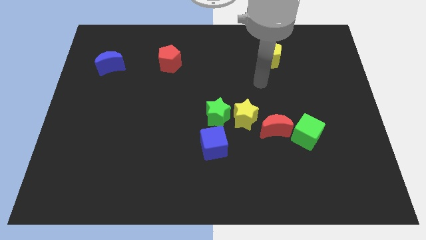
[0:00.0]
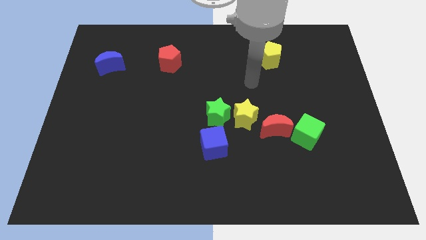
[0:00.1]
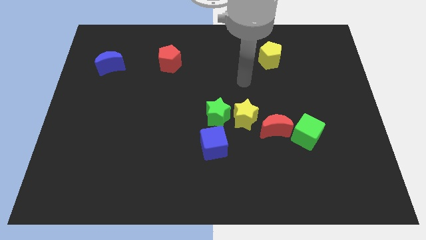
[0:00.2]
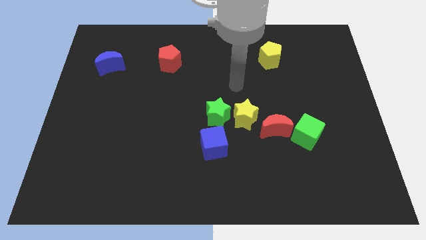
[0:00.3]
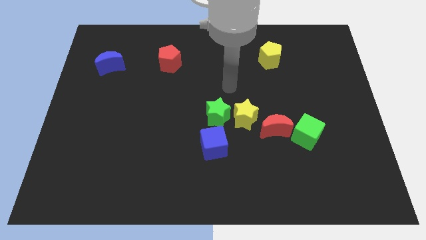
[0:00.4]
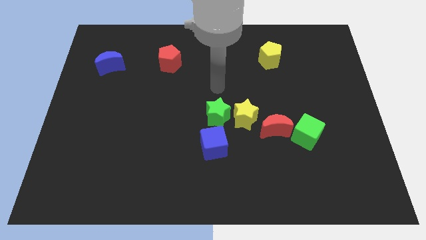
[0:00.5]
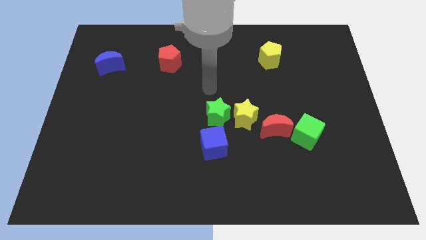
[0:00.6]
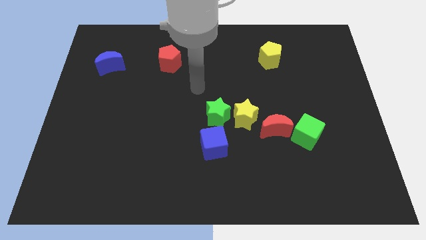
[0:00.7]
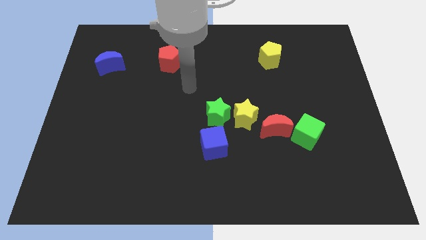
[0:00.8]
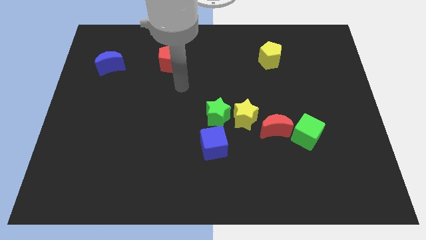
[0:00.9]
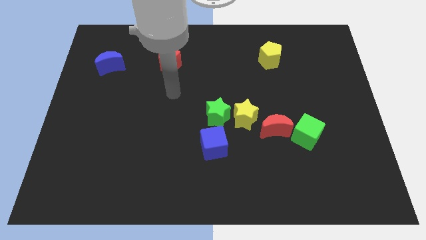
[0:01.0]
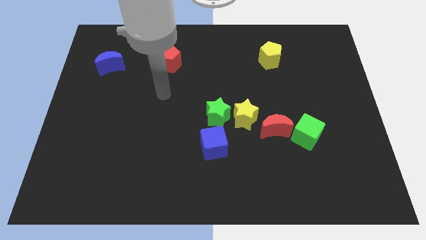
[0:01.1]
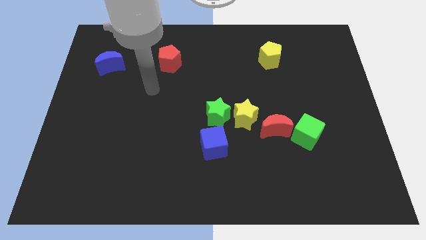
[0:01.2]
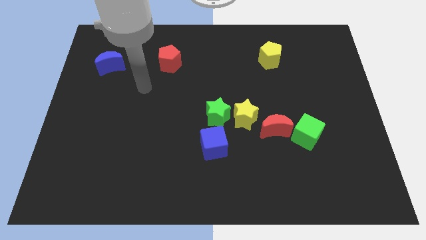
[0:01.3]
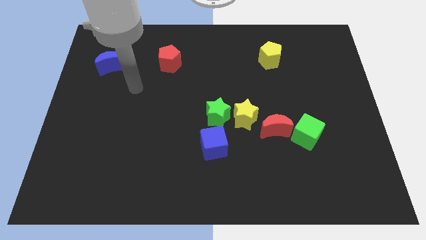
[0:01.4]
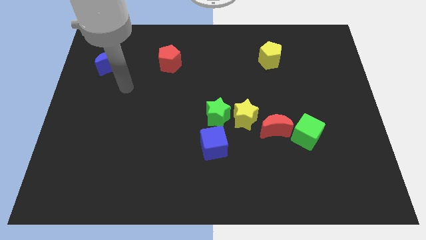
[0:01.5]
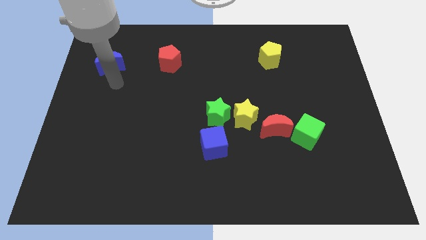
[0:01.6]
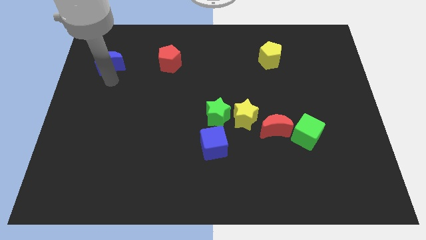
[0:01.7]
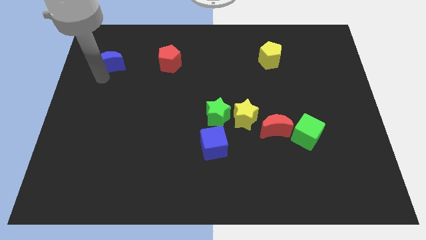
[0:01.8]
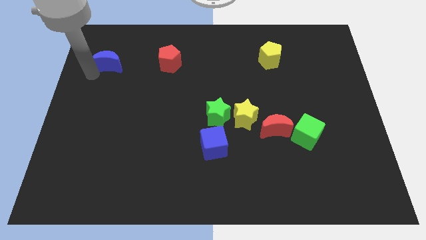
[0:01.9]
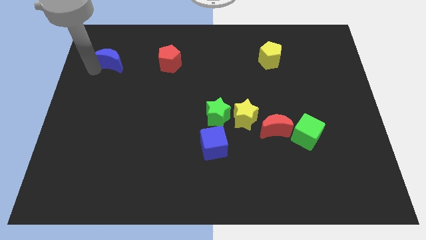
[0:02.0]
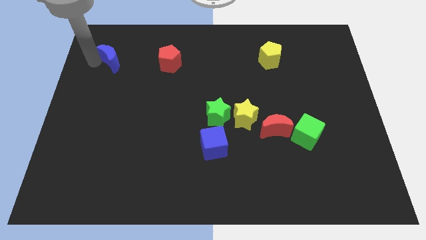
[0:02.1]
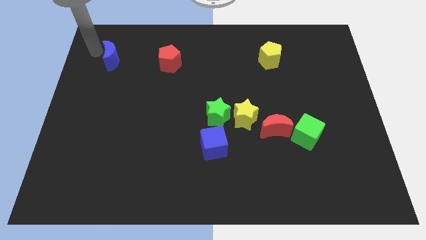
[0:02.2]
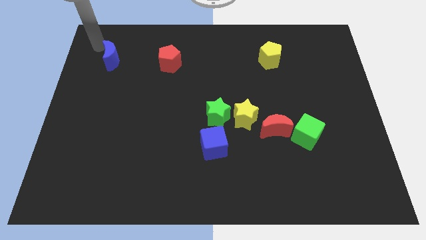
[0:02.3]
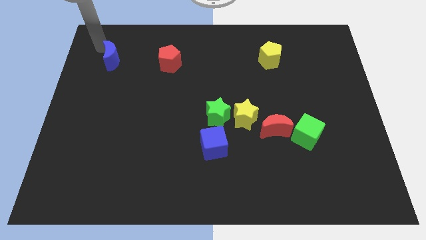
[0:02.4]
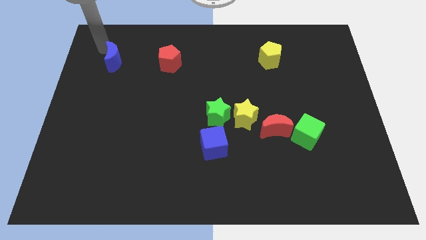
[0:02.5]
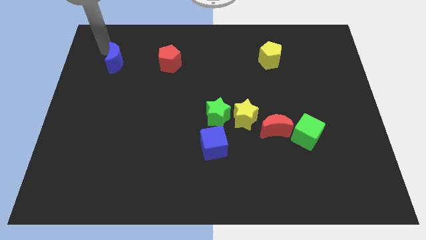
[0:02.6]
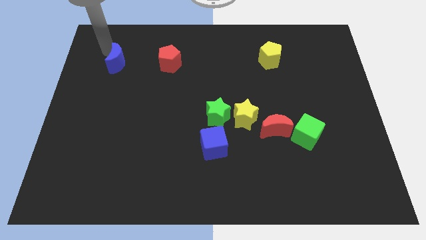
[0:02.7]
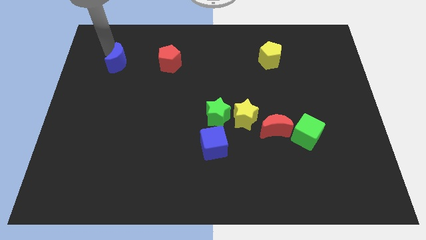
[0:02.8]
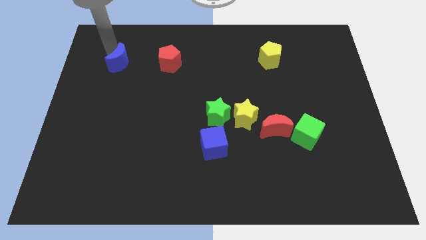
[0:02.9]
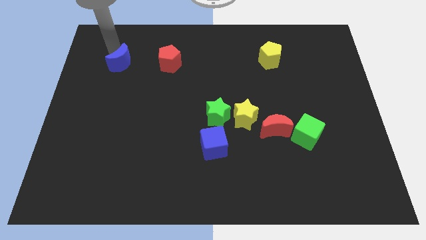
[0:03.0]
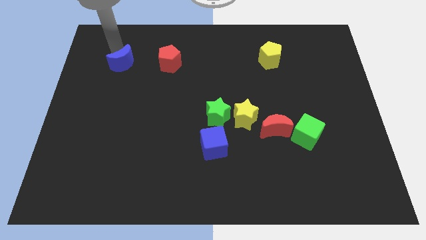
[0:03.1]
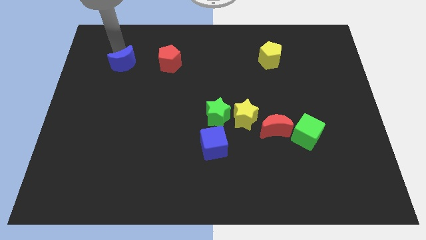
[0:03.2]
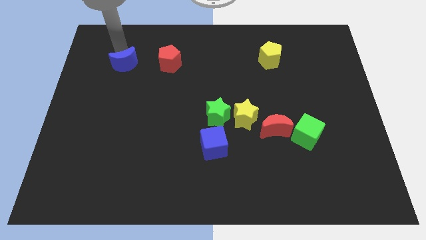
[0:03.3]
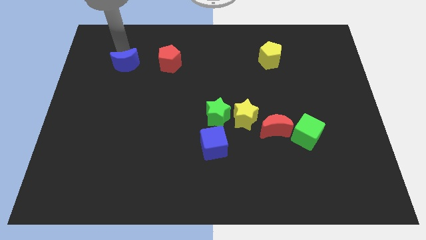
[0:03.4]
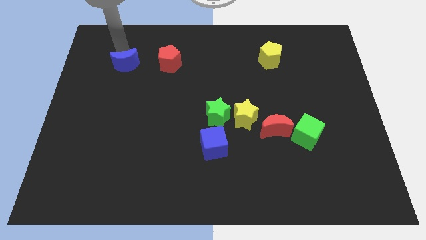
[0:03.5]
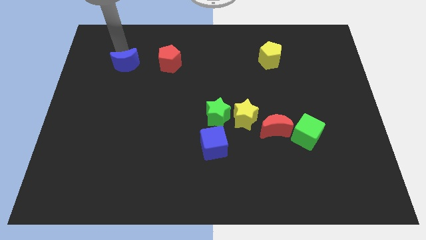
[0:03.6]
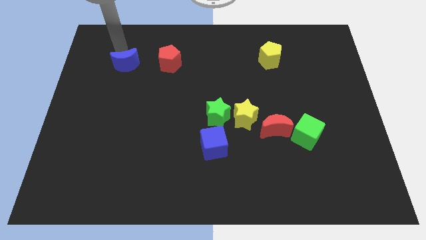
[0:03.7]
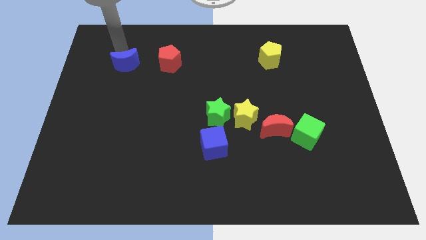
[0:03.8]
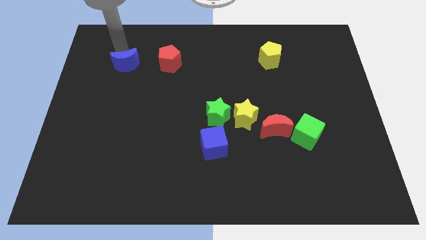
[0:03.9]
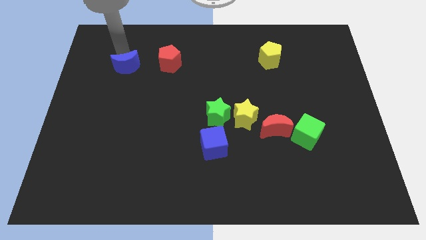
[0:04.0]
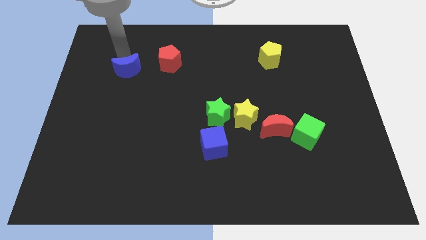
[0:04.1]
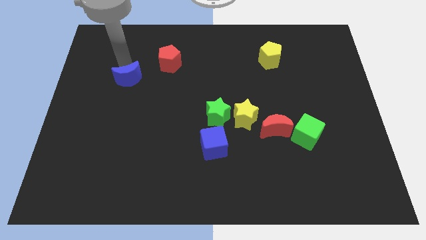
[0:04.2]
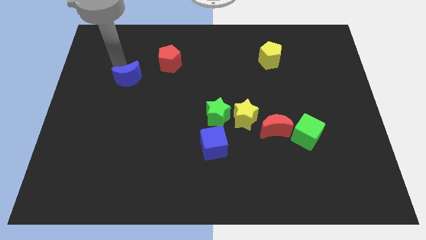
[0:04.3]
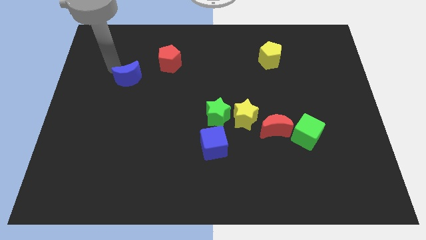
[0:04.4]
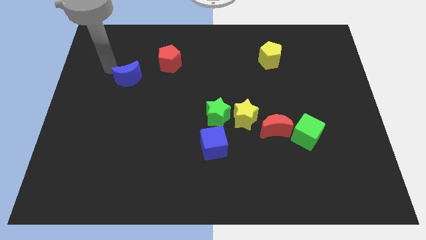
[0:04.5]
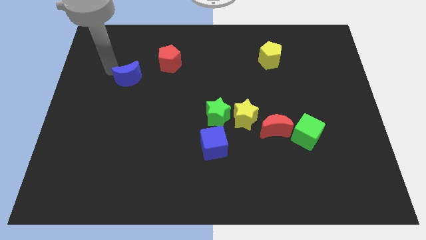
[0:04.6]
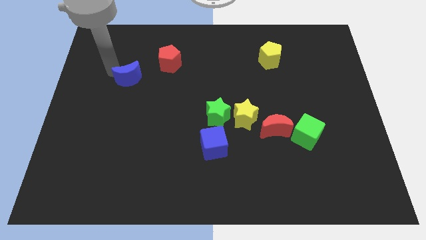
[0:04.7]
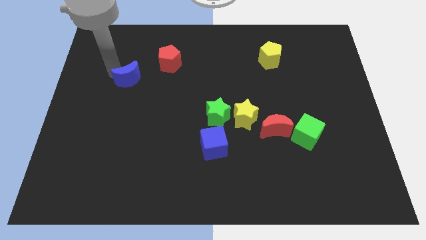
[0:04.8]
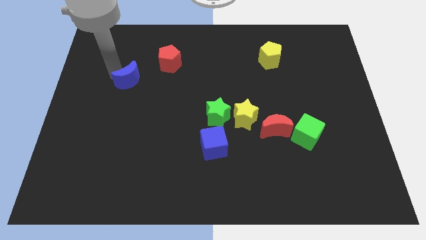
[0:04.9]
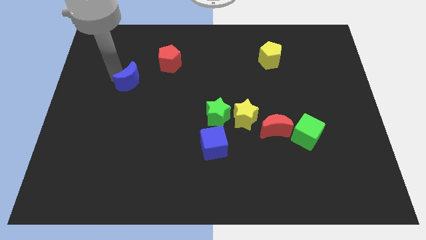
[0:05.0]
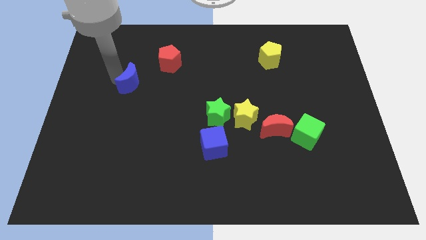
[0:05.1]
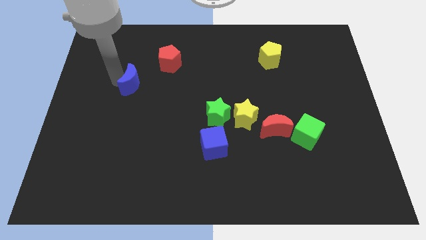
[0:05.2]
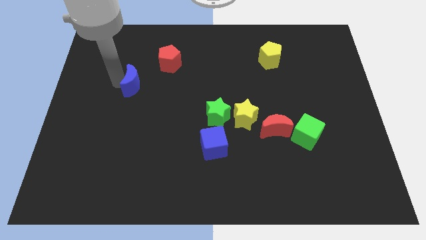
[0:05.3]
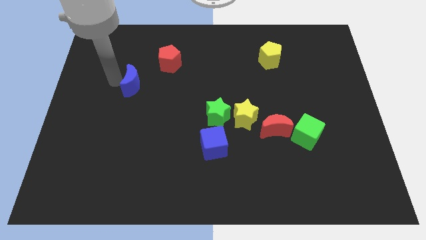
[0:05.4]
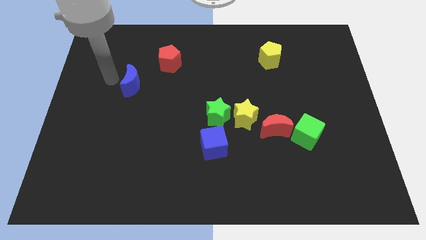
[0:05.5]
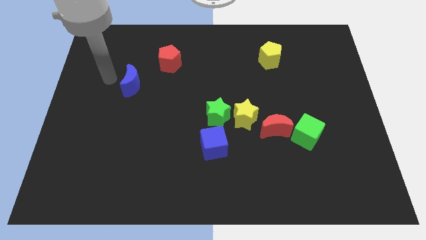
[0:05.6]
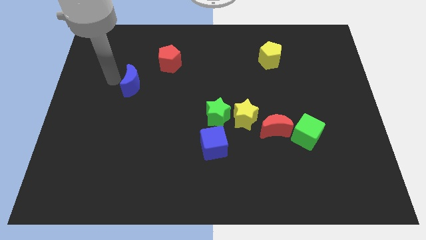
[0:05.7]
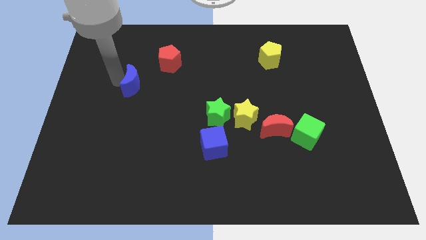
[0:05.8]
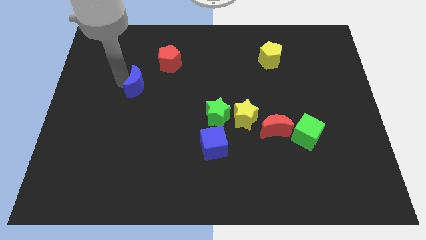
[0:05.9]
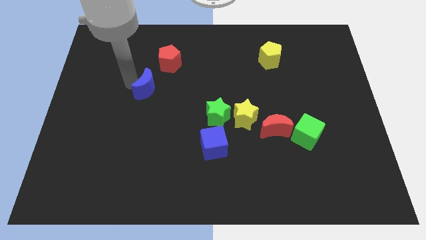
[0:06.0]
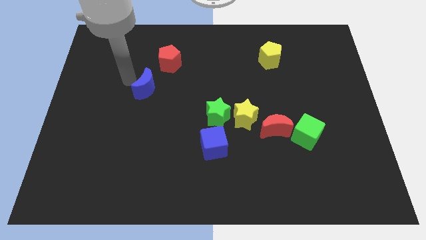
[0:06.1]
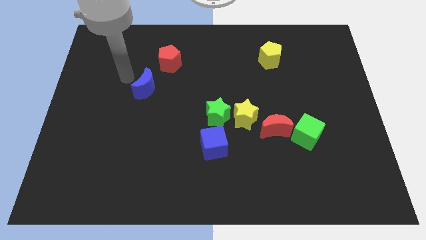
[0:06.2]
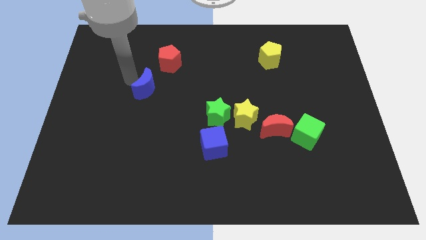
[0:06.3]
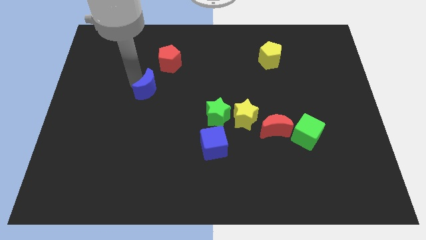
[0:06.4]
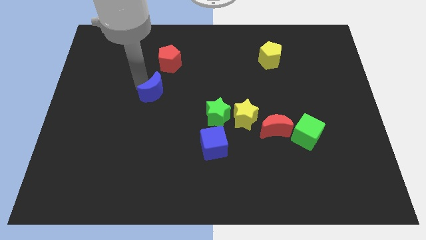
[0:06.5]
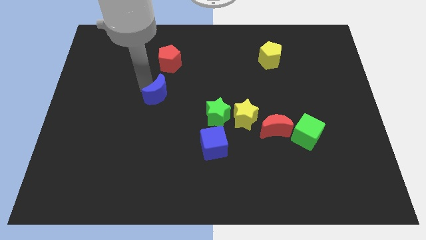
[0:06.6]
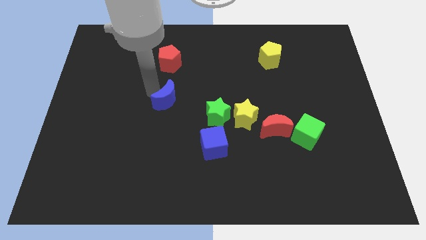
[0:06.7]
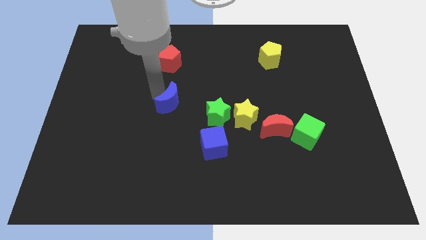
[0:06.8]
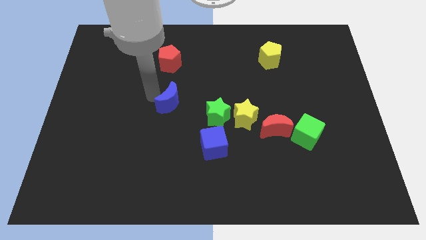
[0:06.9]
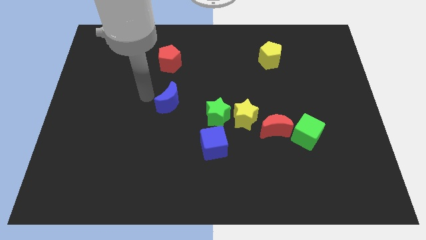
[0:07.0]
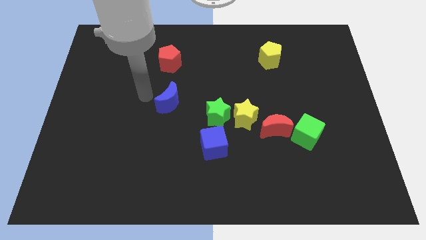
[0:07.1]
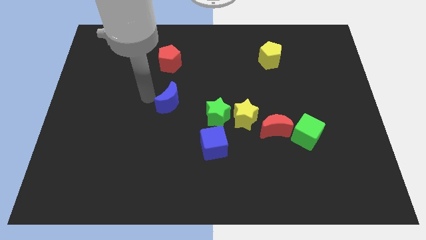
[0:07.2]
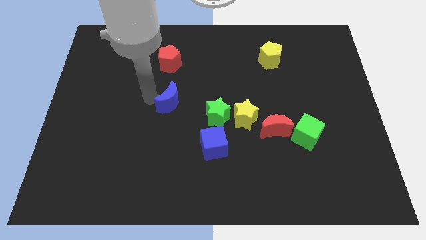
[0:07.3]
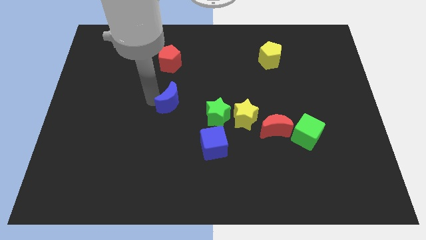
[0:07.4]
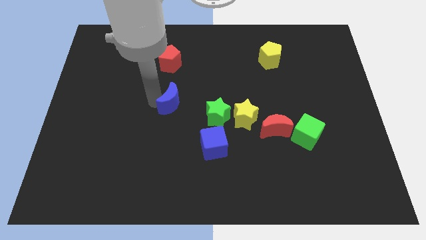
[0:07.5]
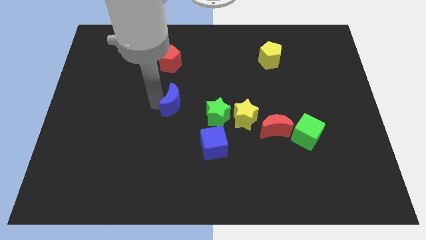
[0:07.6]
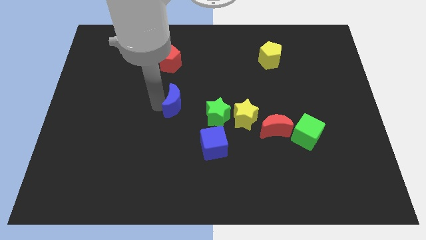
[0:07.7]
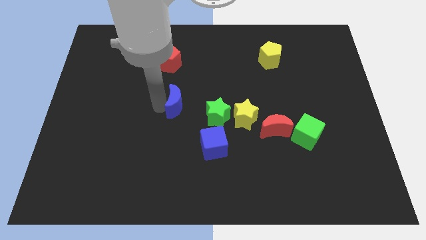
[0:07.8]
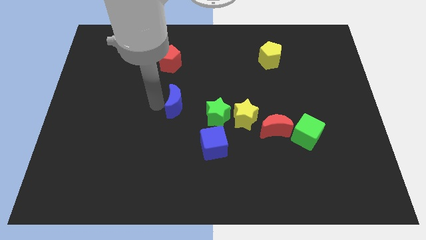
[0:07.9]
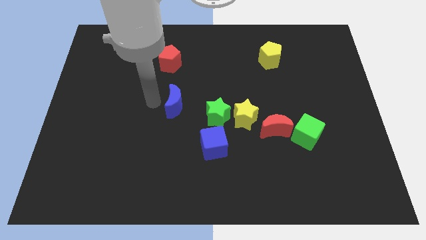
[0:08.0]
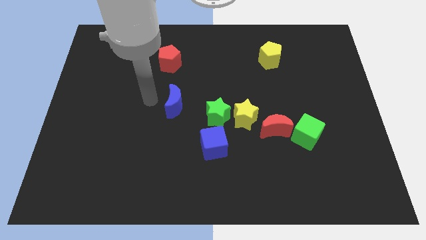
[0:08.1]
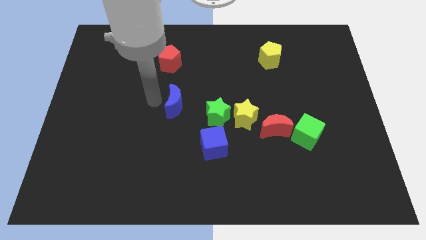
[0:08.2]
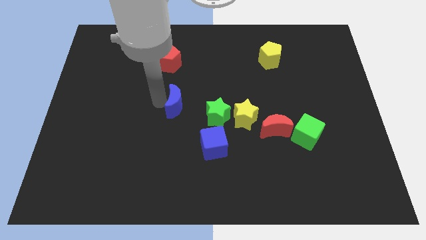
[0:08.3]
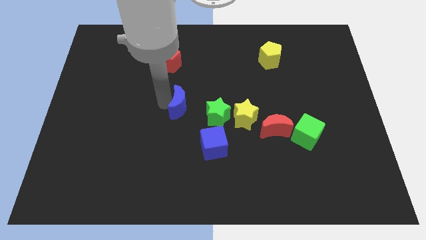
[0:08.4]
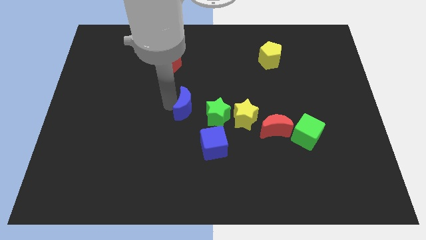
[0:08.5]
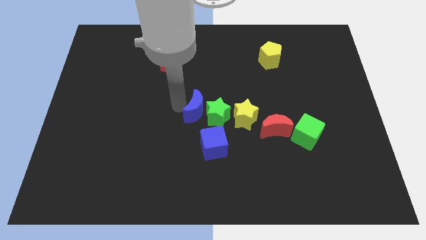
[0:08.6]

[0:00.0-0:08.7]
push the blue moon close to the green star
